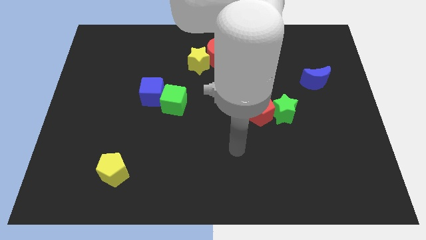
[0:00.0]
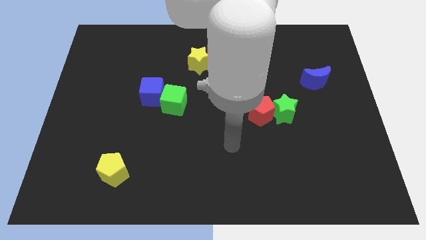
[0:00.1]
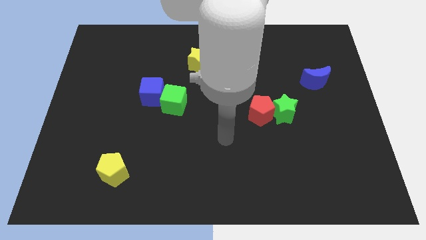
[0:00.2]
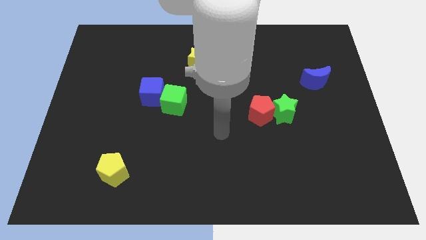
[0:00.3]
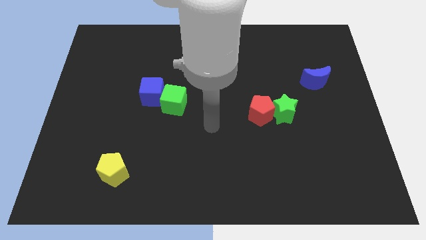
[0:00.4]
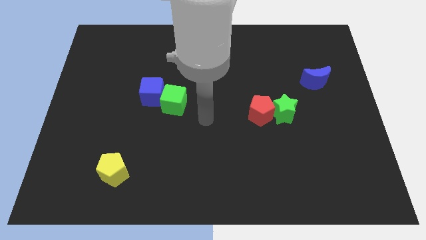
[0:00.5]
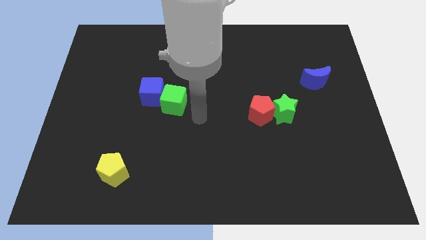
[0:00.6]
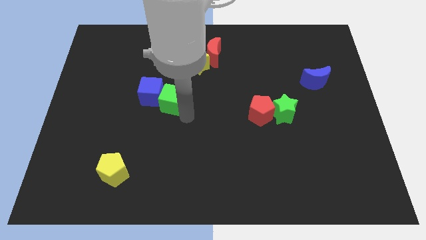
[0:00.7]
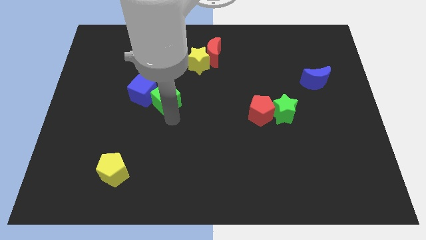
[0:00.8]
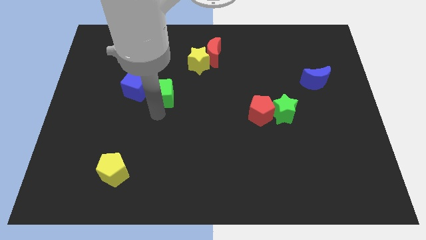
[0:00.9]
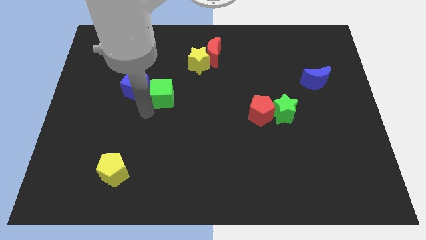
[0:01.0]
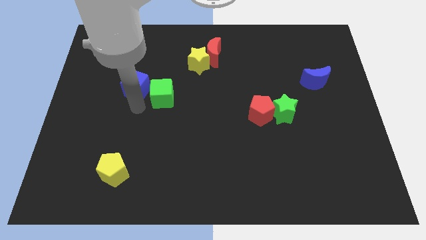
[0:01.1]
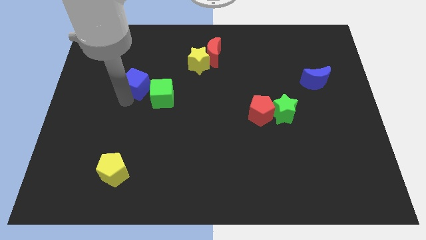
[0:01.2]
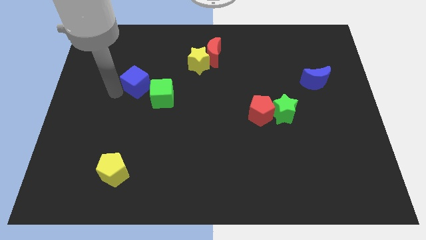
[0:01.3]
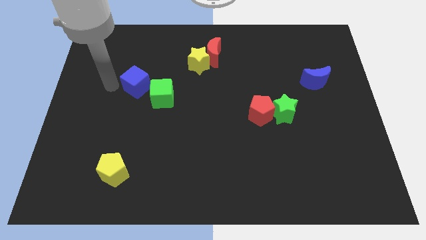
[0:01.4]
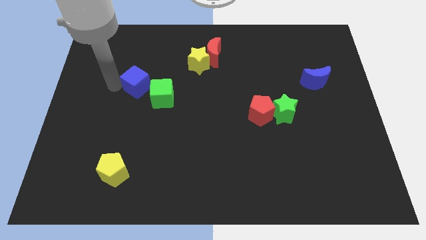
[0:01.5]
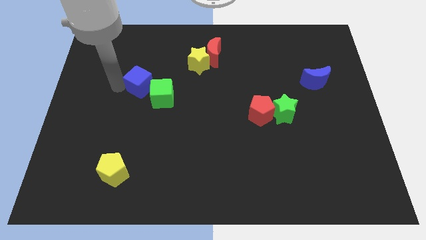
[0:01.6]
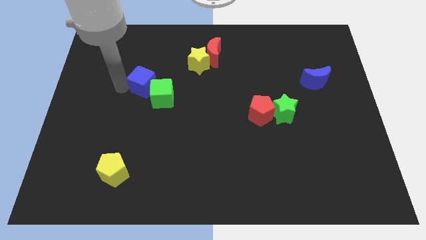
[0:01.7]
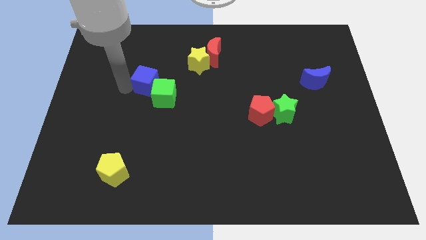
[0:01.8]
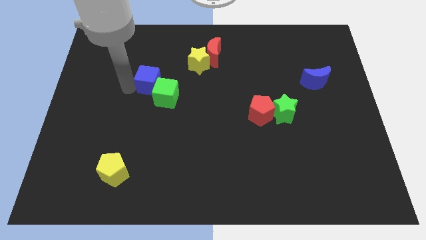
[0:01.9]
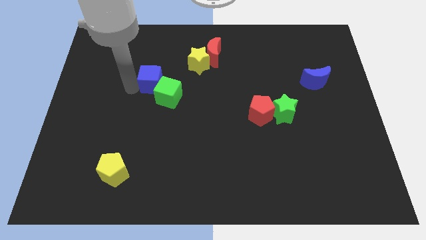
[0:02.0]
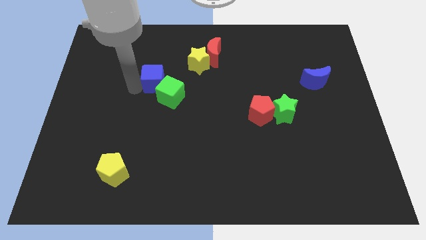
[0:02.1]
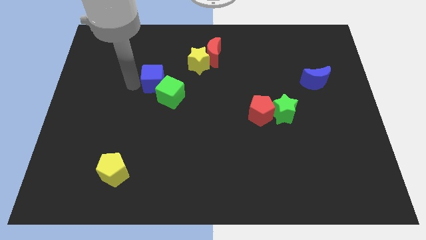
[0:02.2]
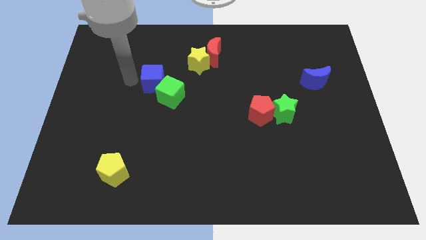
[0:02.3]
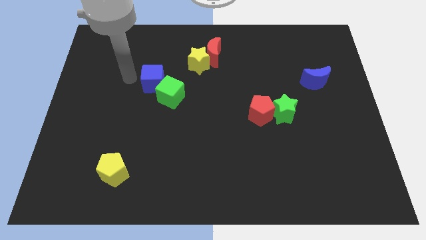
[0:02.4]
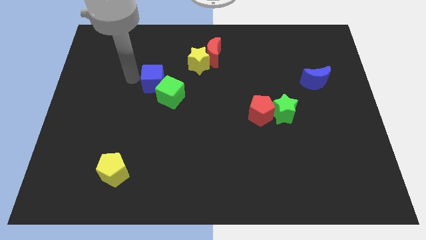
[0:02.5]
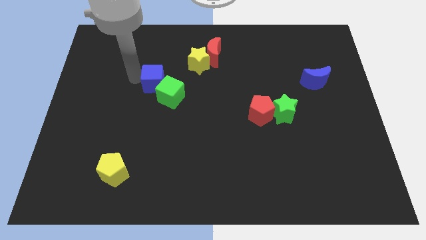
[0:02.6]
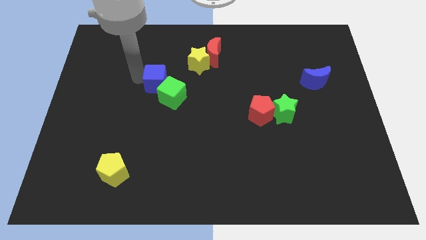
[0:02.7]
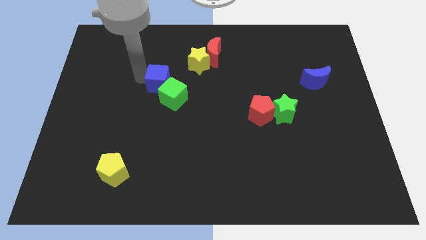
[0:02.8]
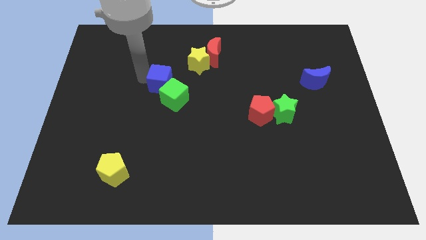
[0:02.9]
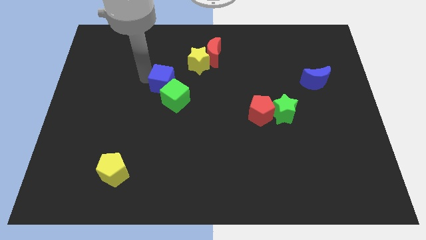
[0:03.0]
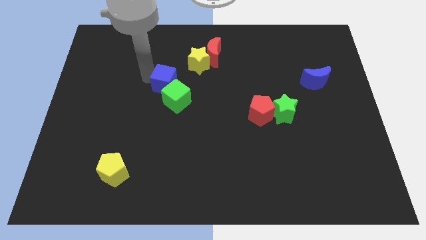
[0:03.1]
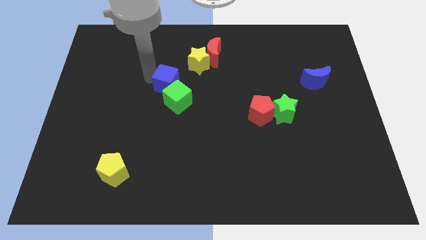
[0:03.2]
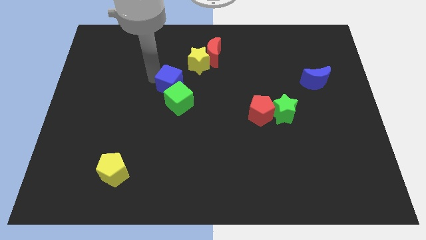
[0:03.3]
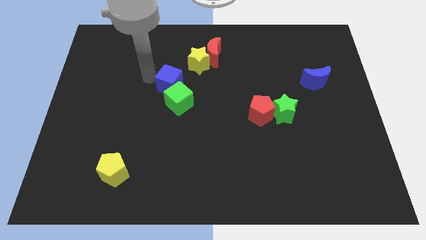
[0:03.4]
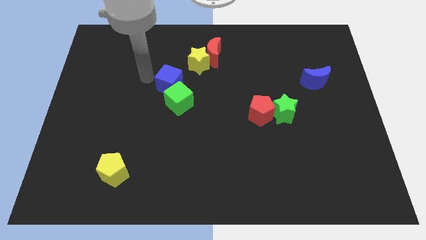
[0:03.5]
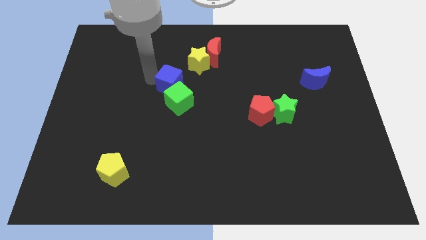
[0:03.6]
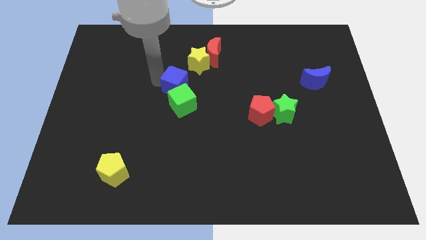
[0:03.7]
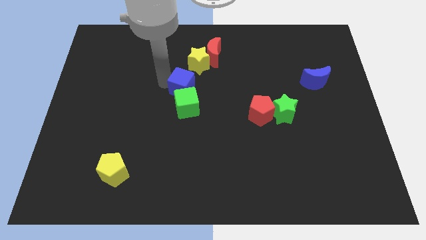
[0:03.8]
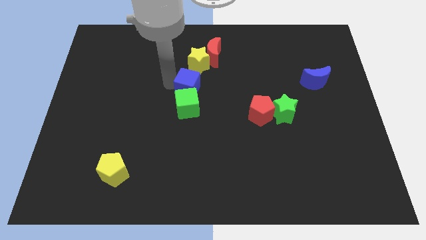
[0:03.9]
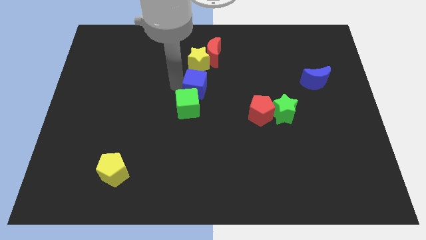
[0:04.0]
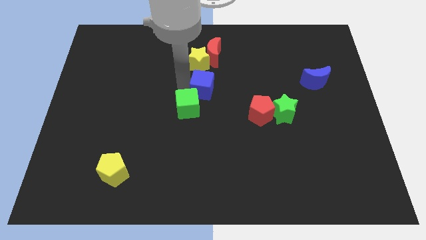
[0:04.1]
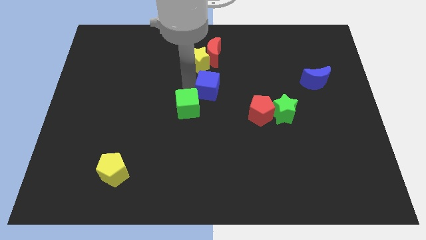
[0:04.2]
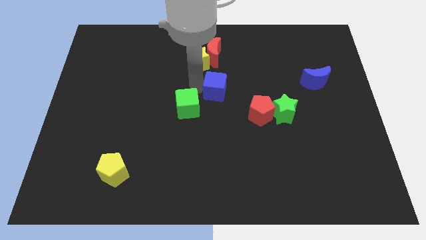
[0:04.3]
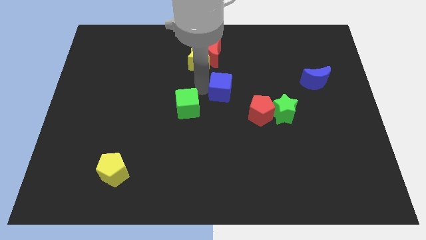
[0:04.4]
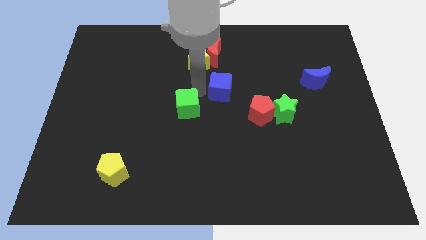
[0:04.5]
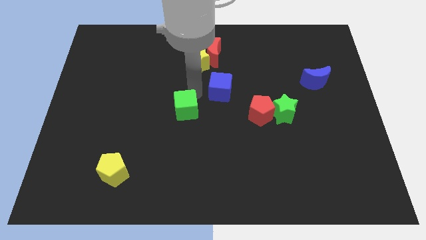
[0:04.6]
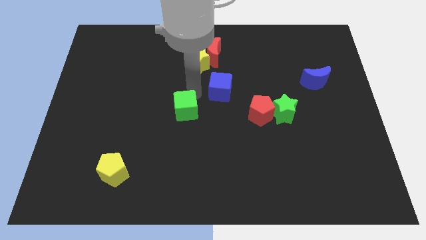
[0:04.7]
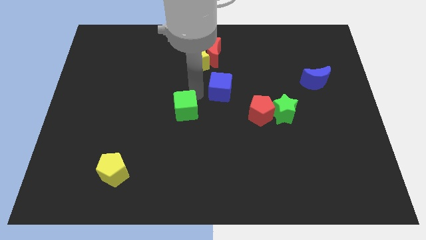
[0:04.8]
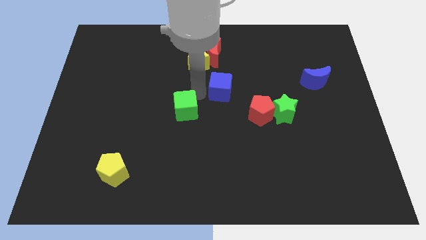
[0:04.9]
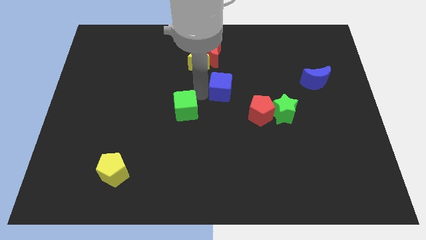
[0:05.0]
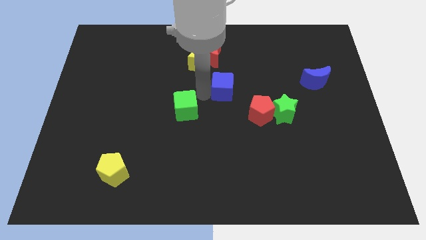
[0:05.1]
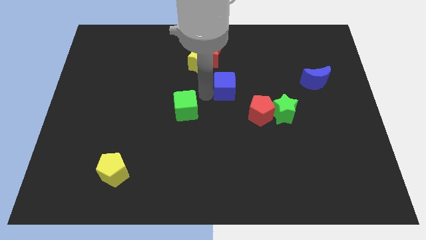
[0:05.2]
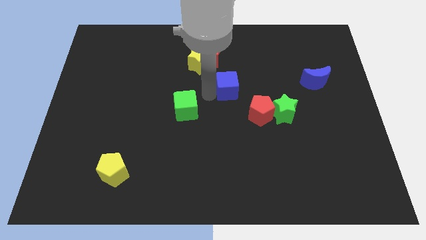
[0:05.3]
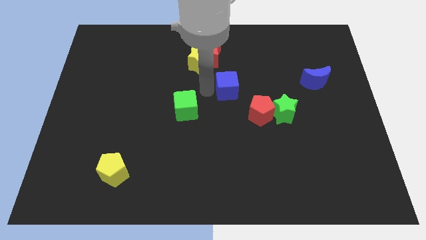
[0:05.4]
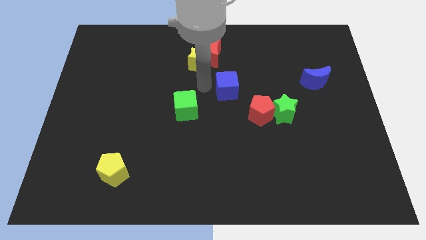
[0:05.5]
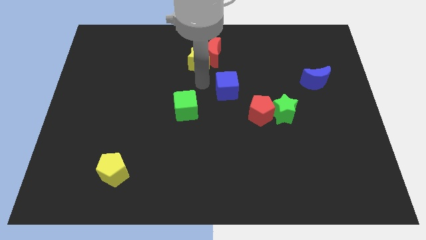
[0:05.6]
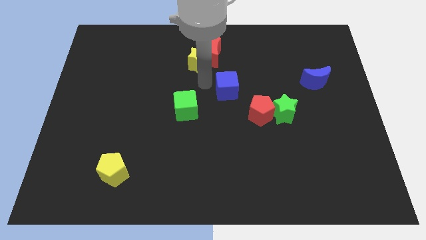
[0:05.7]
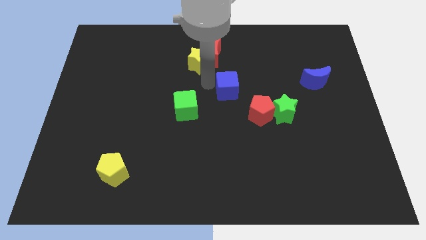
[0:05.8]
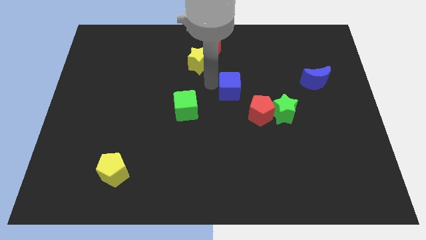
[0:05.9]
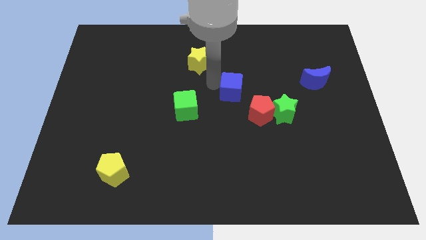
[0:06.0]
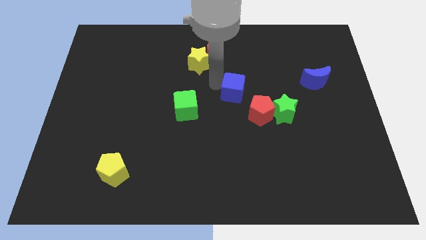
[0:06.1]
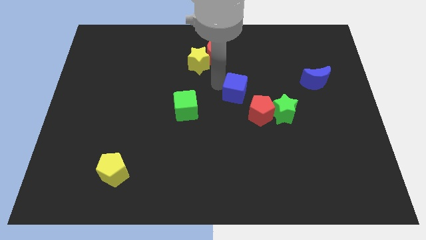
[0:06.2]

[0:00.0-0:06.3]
slide the blue cube right

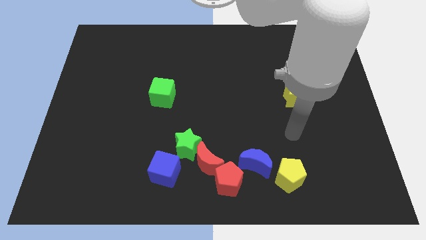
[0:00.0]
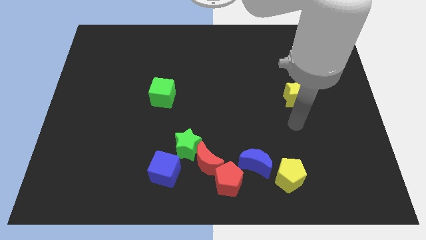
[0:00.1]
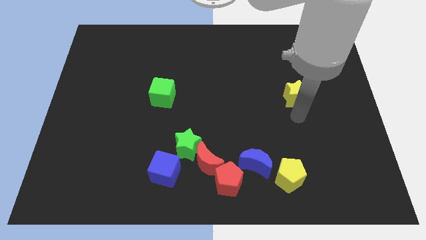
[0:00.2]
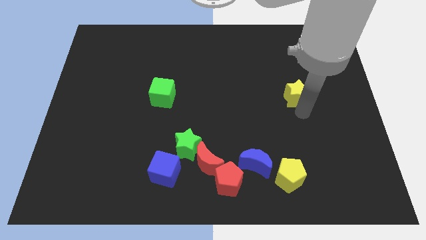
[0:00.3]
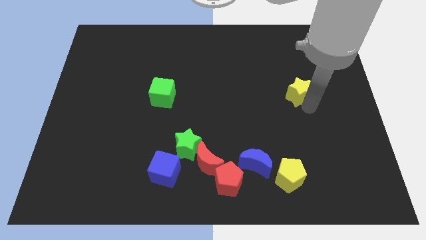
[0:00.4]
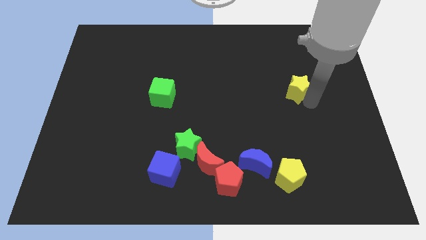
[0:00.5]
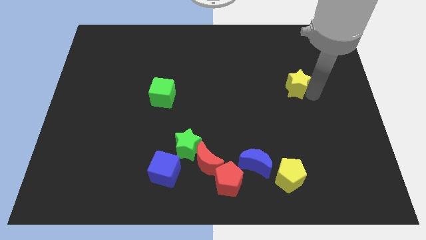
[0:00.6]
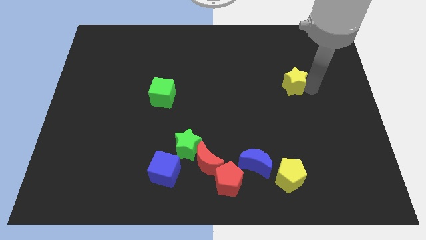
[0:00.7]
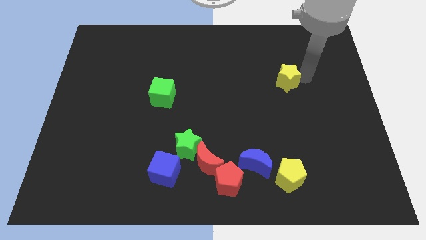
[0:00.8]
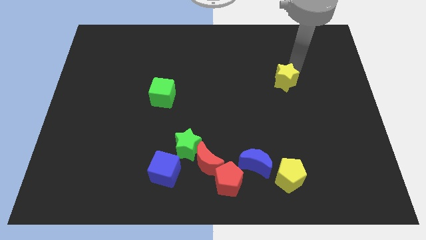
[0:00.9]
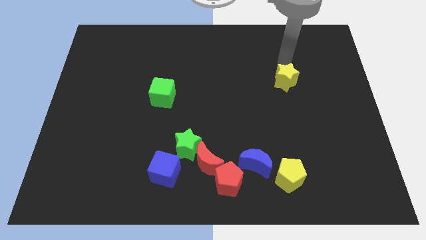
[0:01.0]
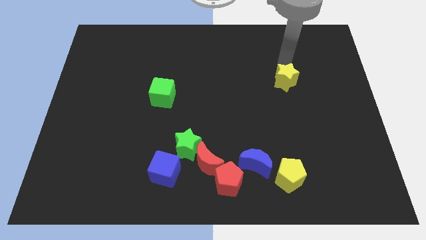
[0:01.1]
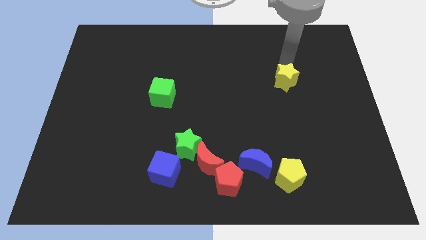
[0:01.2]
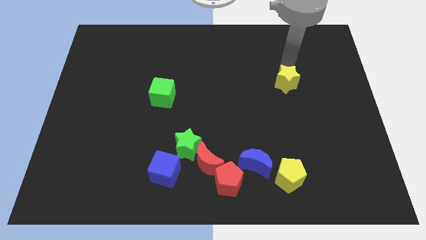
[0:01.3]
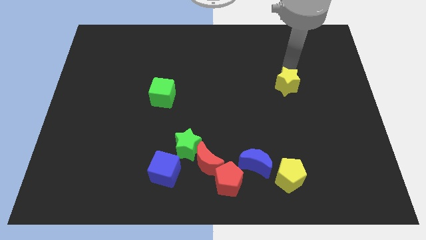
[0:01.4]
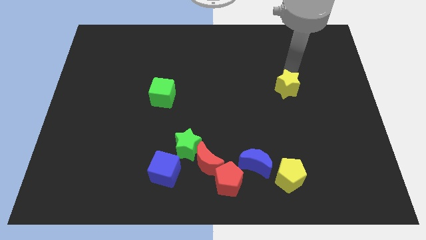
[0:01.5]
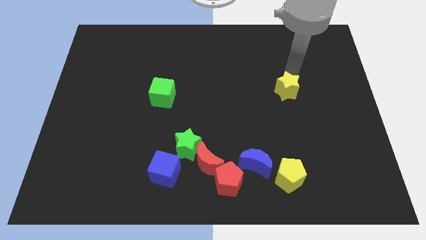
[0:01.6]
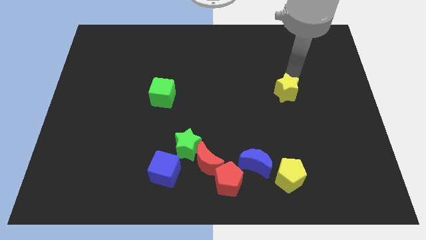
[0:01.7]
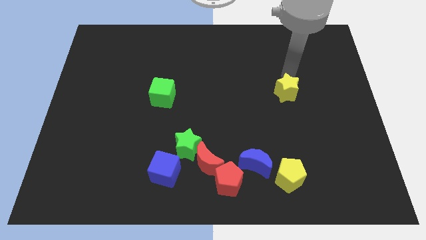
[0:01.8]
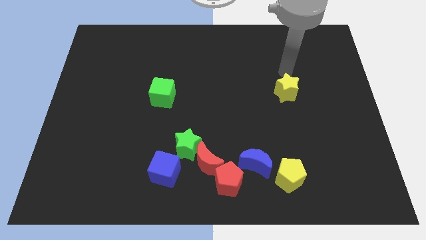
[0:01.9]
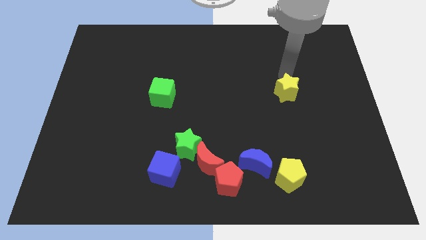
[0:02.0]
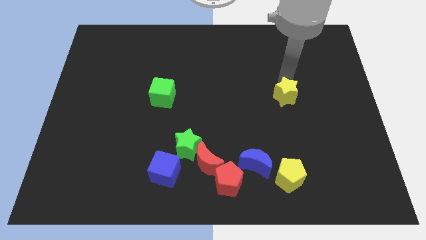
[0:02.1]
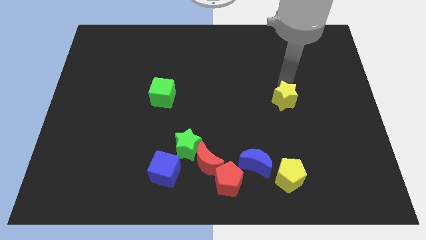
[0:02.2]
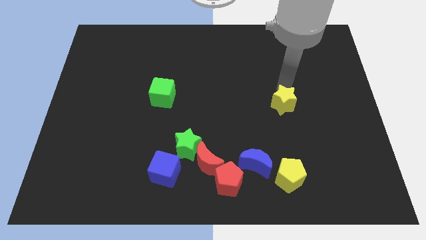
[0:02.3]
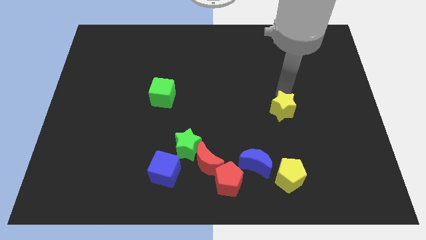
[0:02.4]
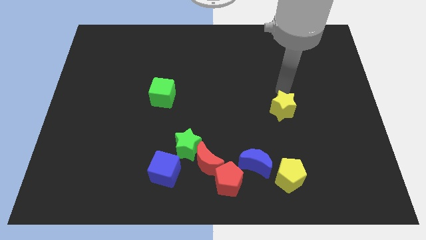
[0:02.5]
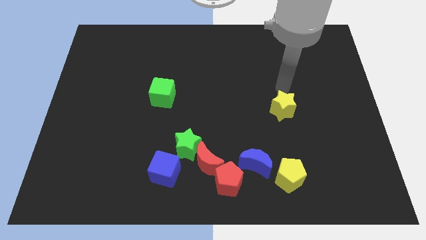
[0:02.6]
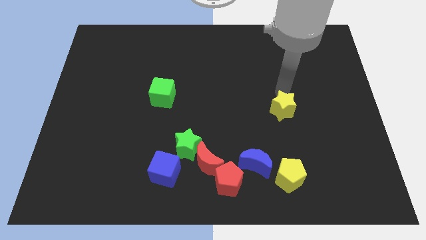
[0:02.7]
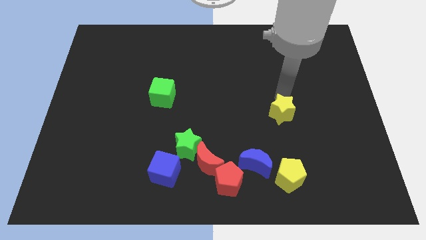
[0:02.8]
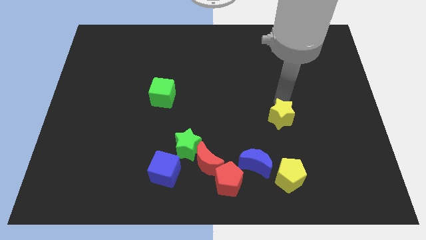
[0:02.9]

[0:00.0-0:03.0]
slightly push the yellow star down and to the left
